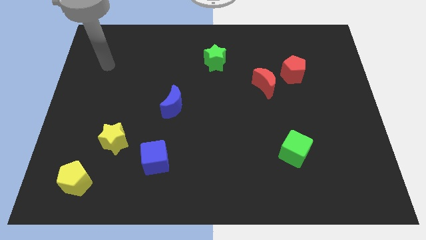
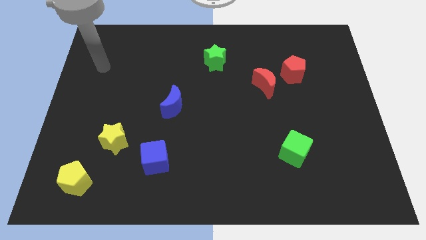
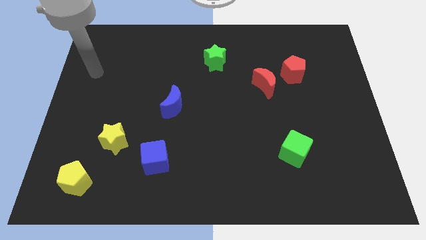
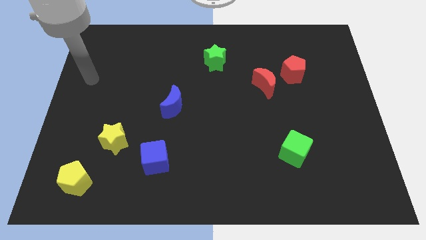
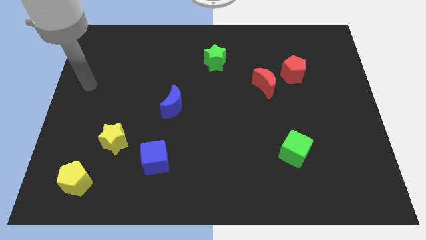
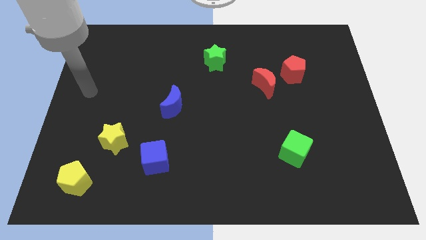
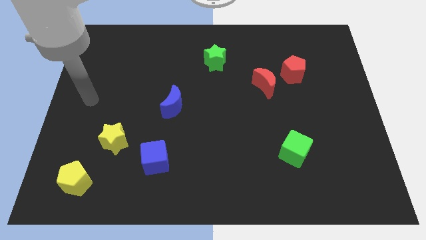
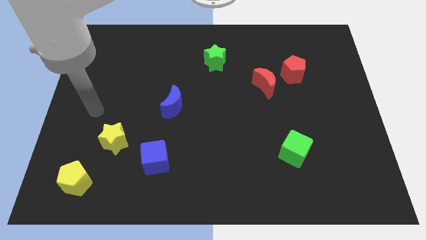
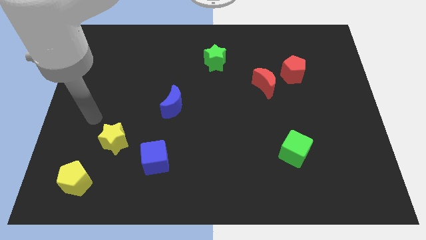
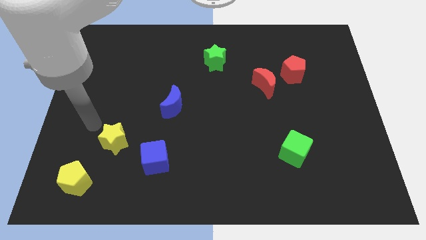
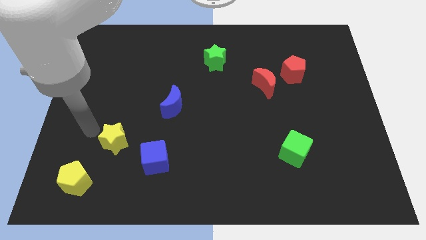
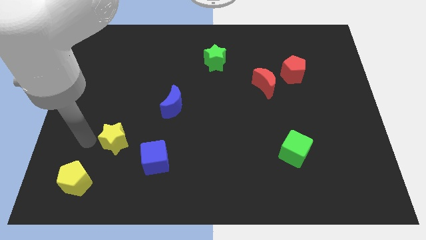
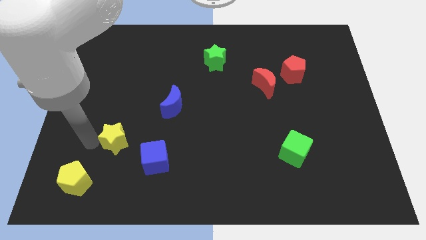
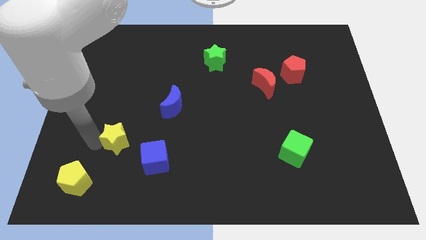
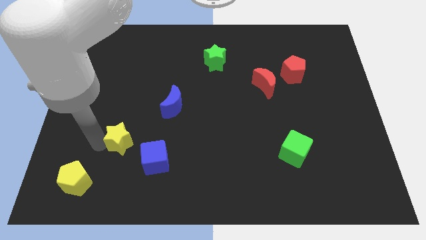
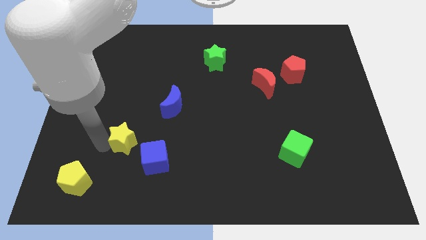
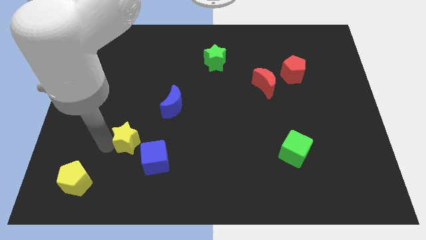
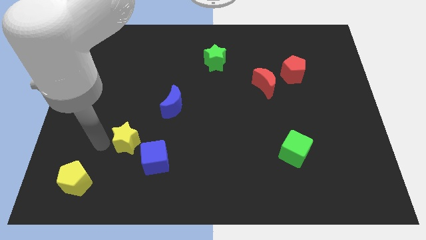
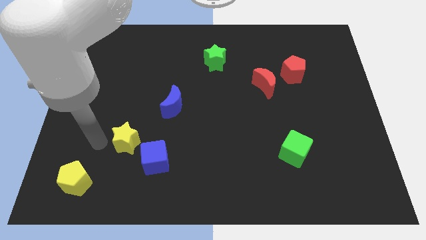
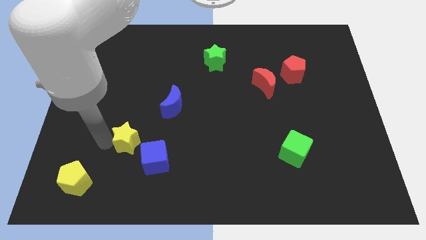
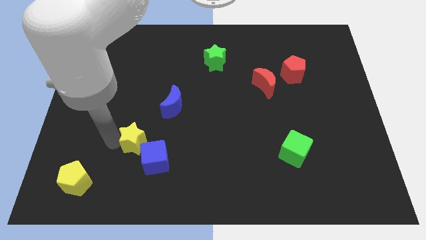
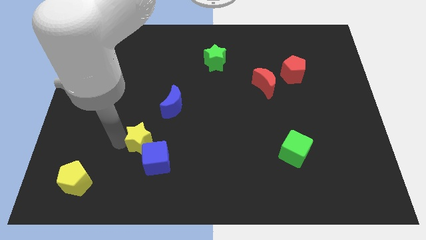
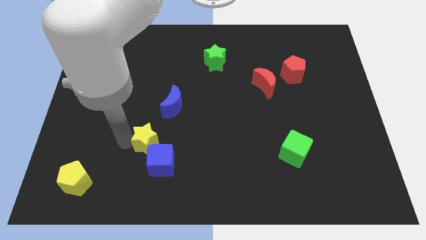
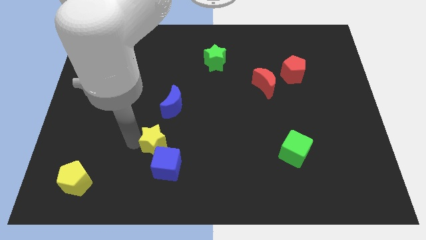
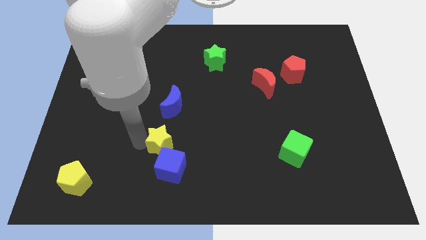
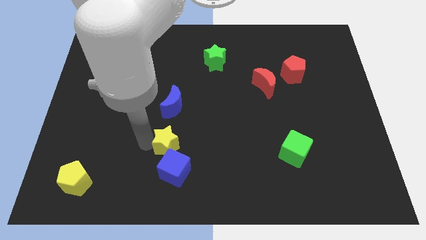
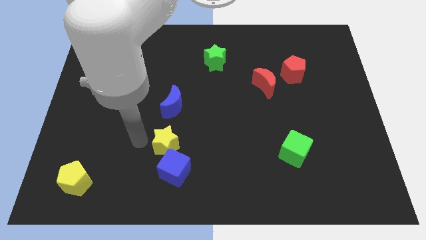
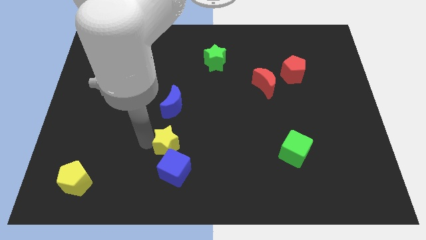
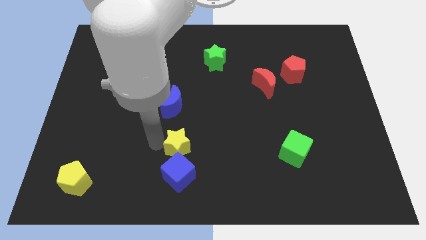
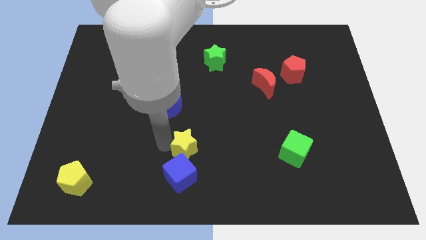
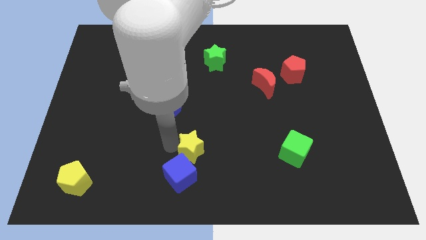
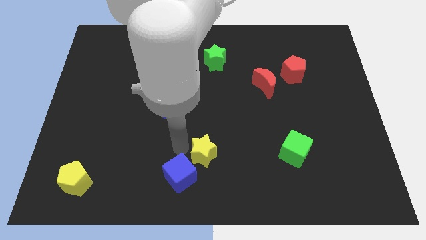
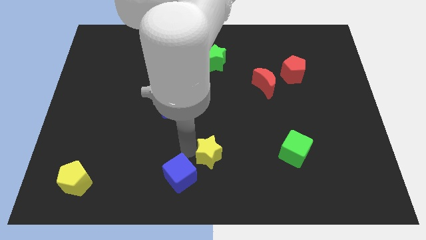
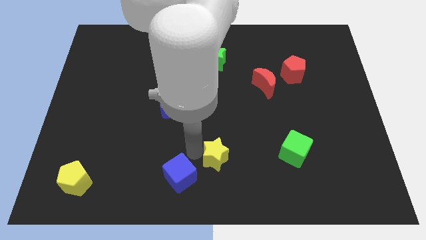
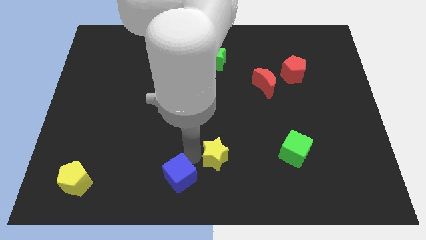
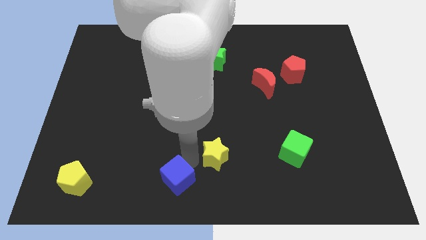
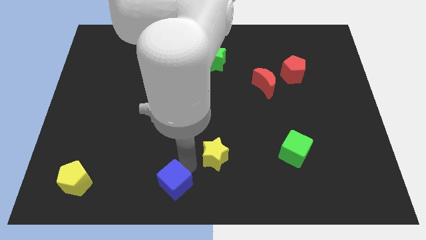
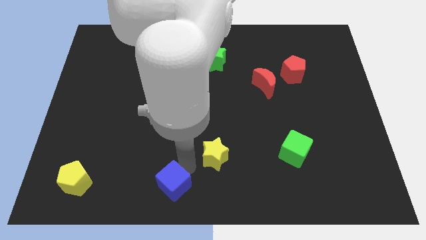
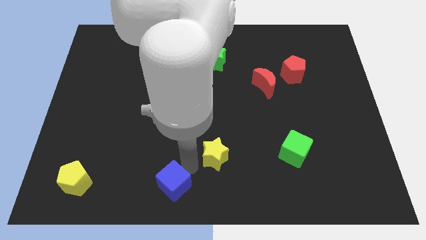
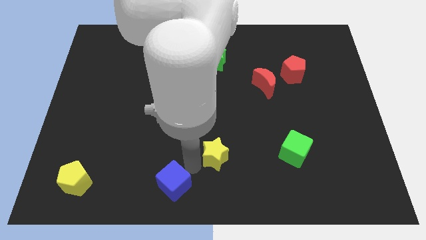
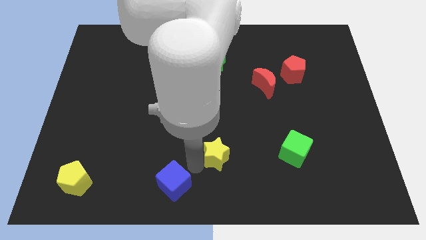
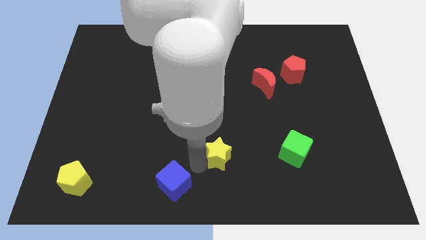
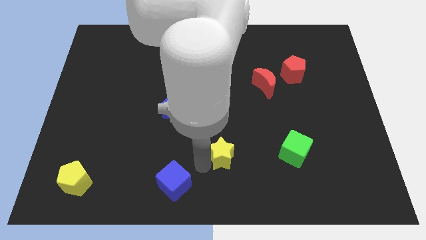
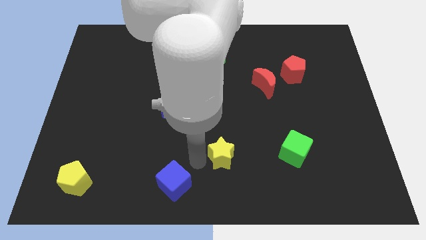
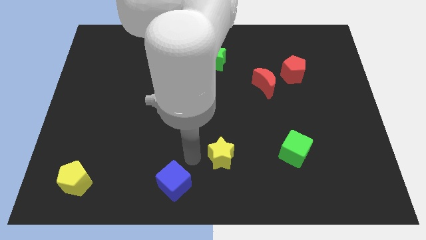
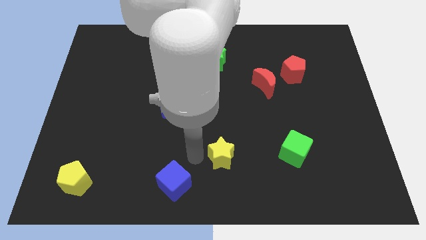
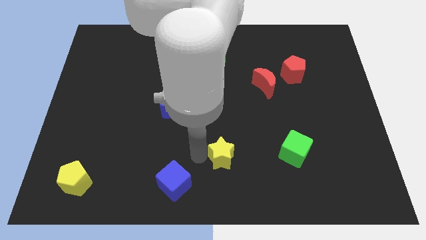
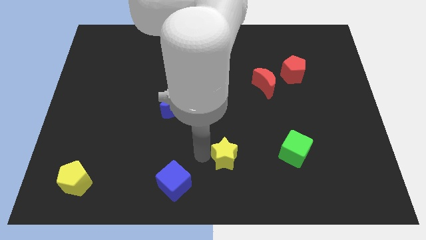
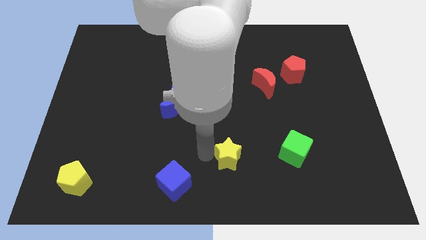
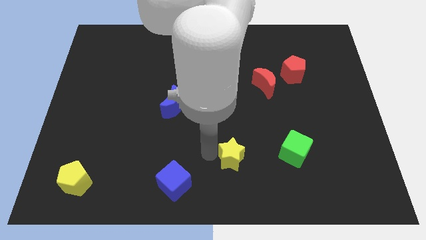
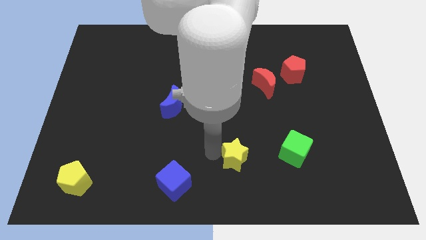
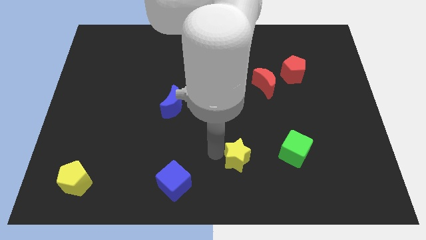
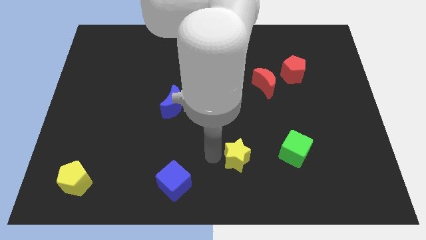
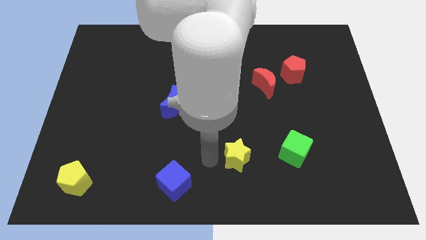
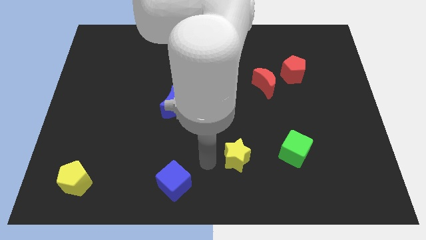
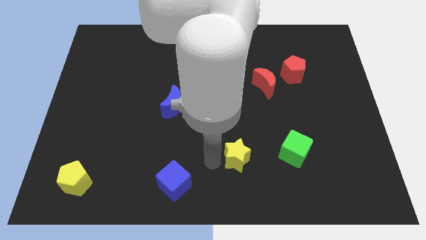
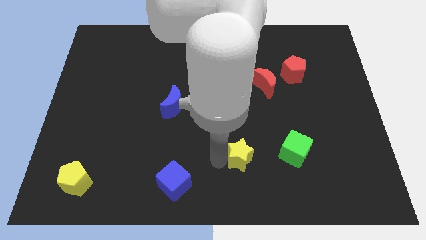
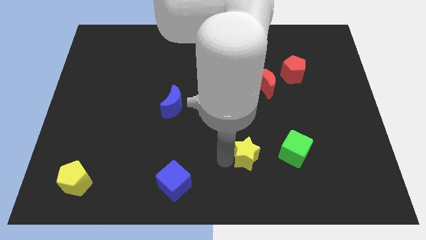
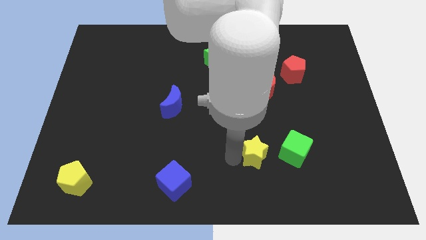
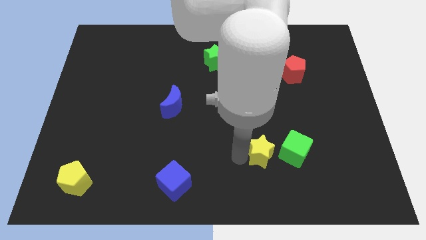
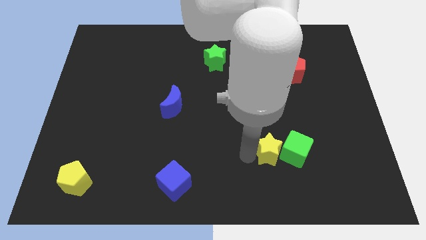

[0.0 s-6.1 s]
slide the yellow star to the green cube

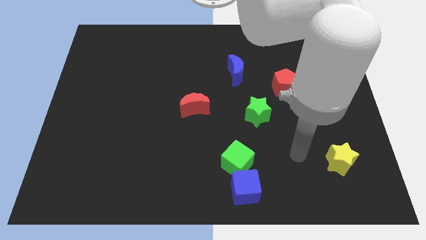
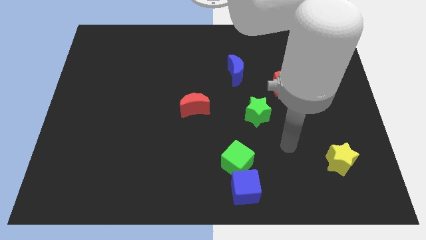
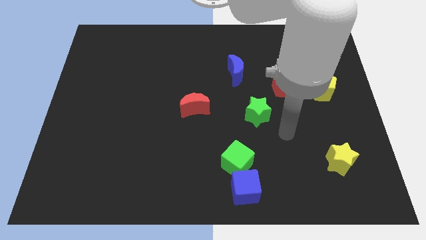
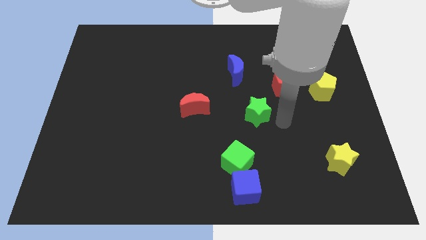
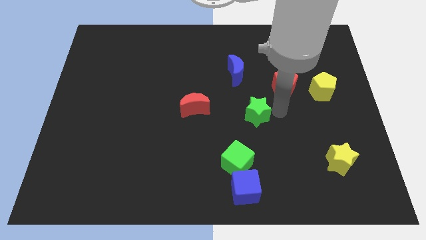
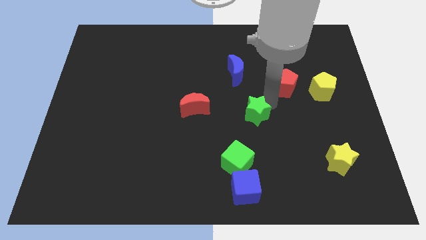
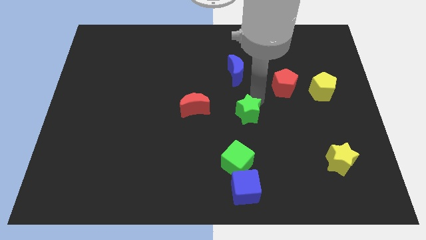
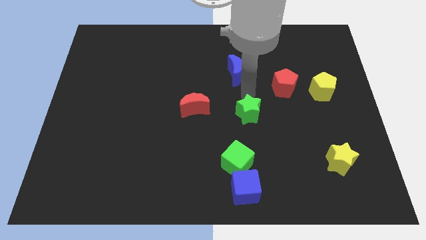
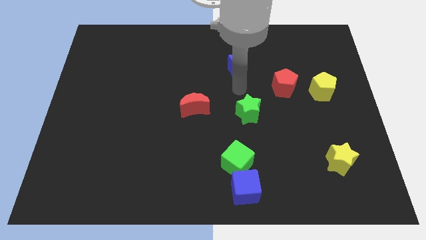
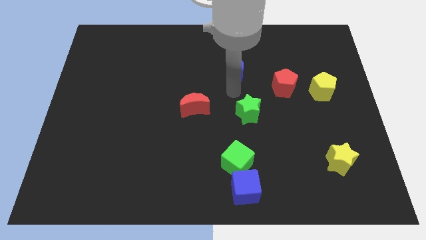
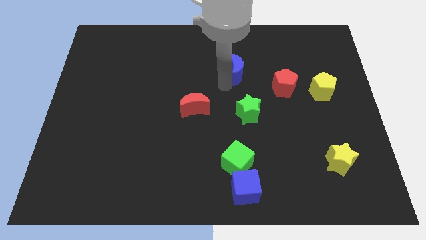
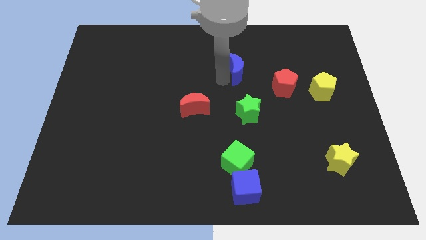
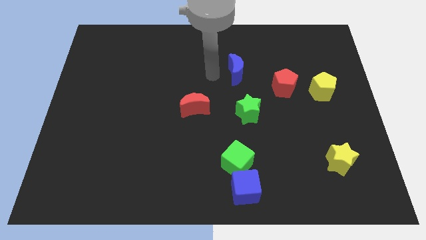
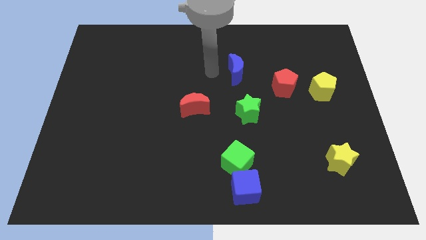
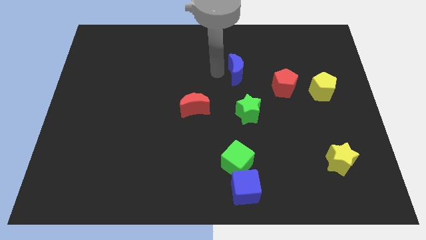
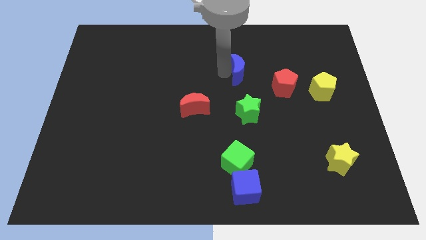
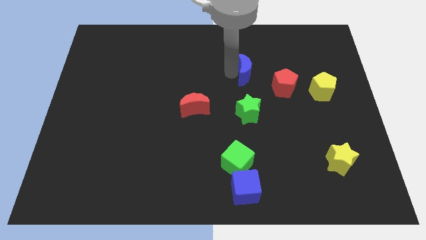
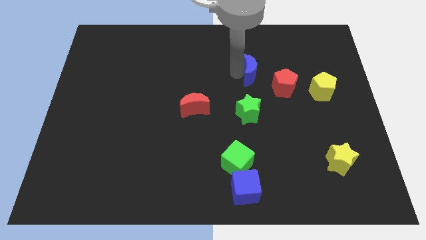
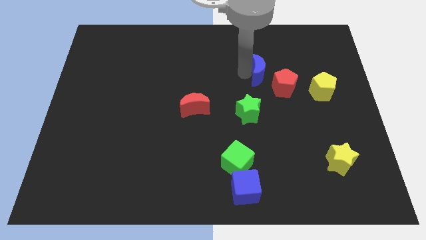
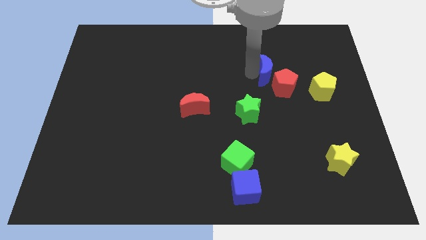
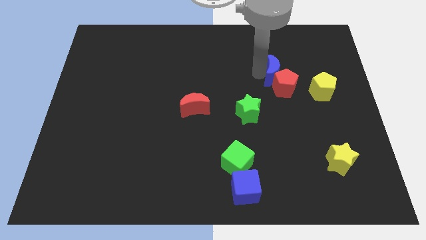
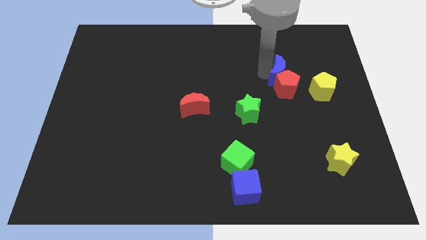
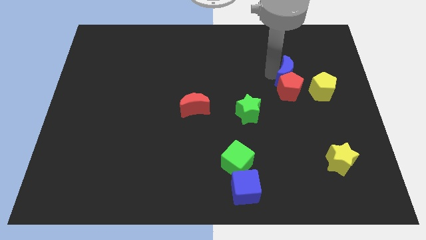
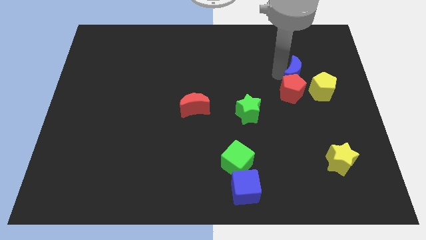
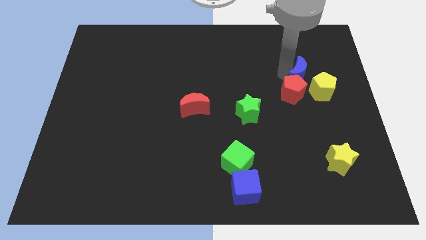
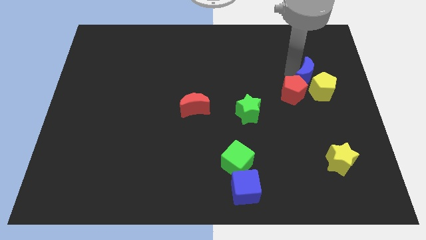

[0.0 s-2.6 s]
put the blue moon next to the yellow pentagon
